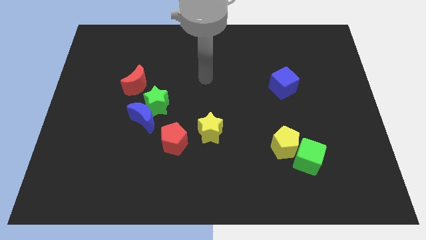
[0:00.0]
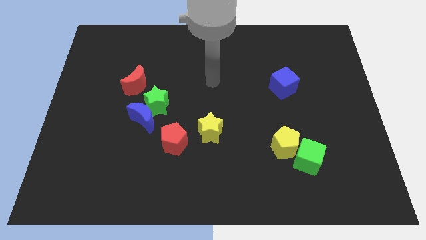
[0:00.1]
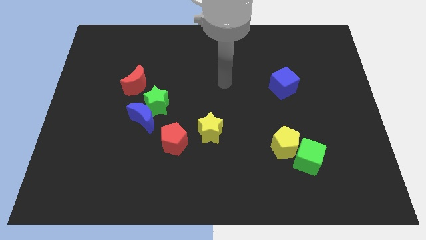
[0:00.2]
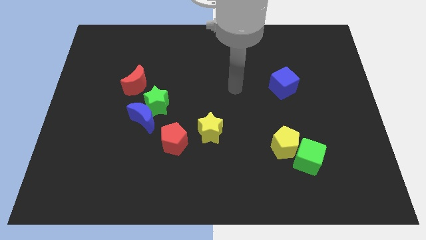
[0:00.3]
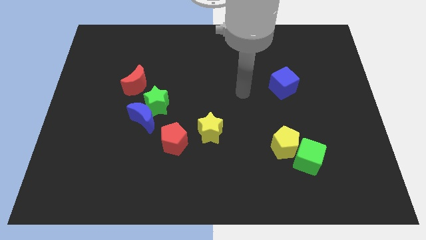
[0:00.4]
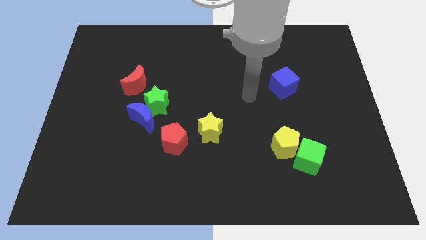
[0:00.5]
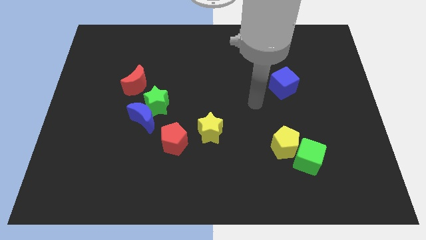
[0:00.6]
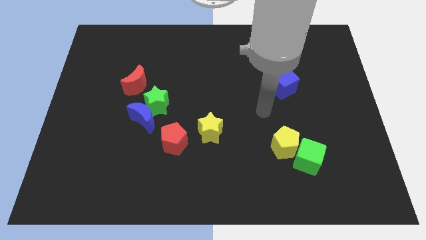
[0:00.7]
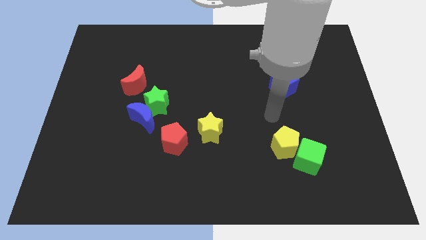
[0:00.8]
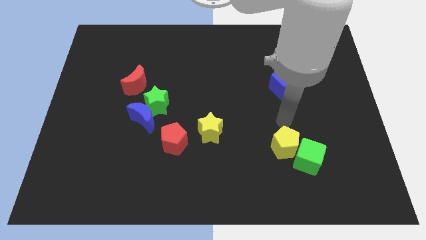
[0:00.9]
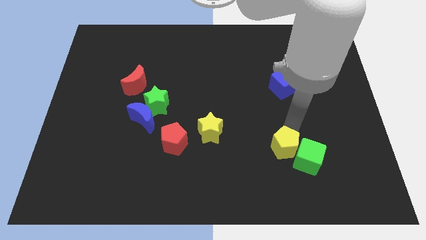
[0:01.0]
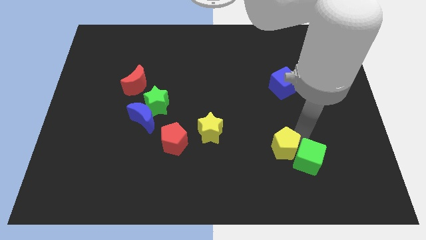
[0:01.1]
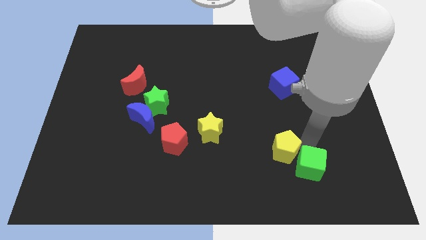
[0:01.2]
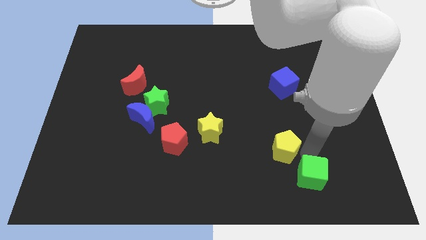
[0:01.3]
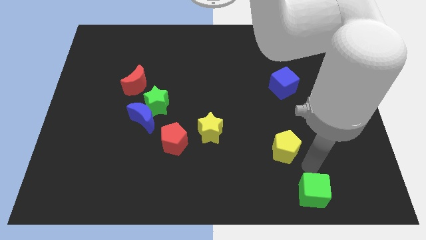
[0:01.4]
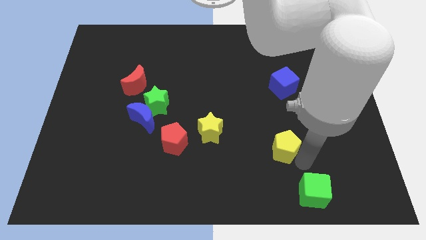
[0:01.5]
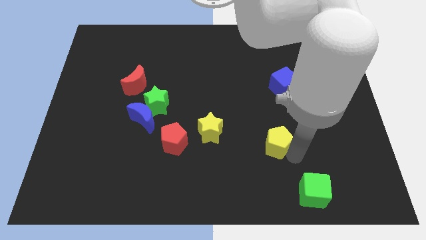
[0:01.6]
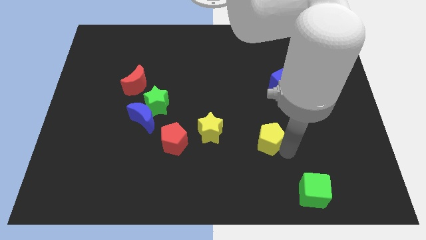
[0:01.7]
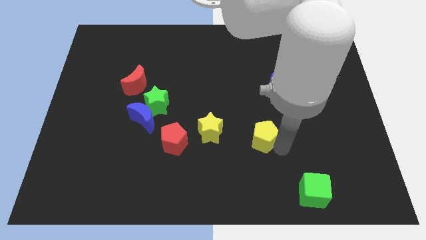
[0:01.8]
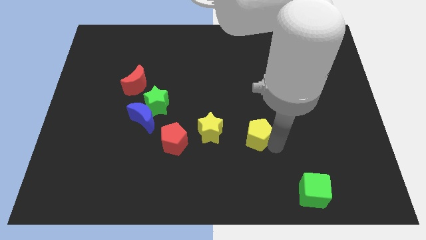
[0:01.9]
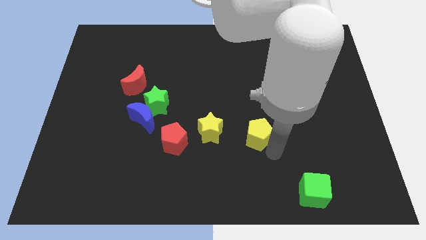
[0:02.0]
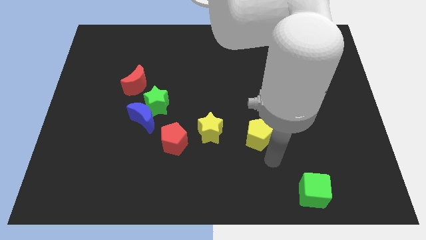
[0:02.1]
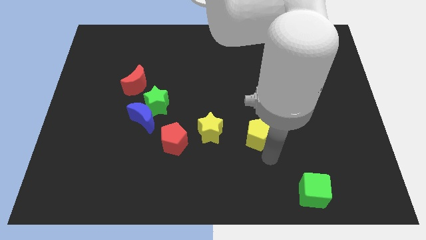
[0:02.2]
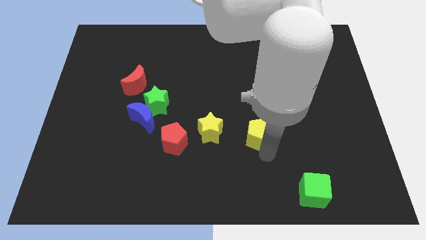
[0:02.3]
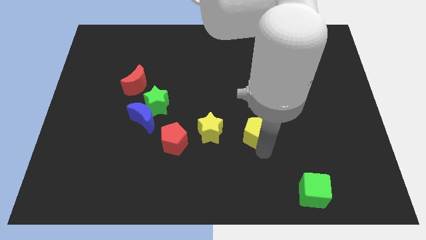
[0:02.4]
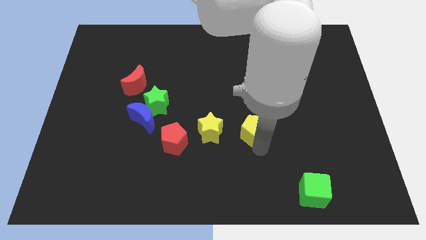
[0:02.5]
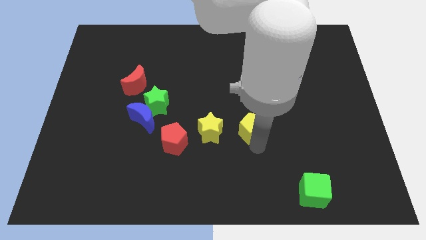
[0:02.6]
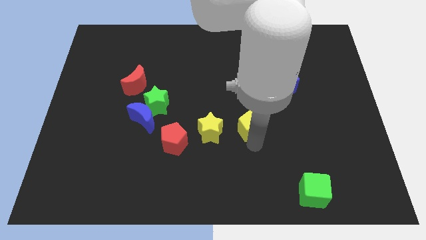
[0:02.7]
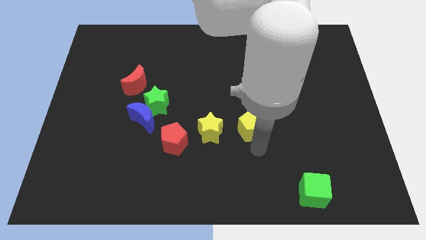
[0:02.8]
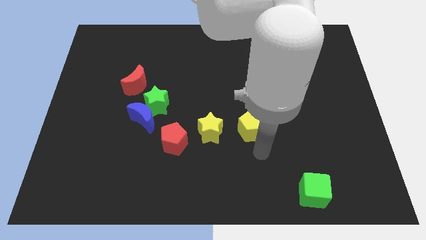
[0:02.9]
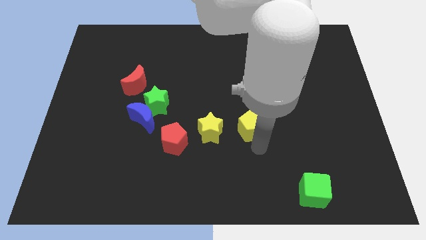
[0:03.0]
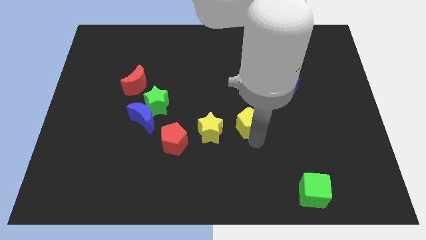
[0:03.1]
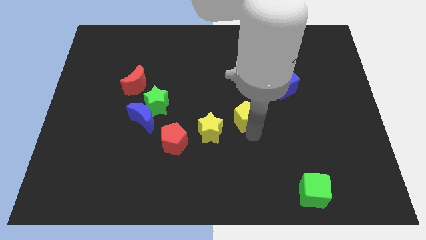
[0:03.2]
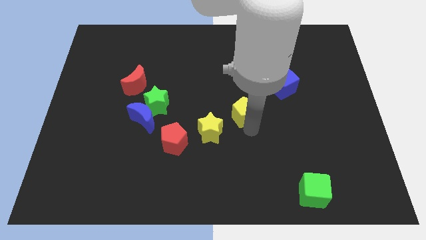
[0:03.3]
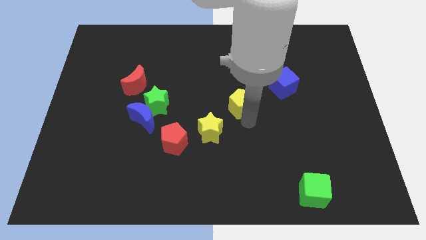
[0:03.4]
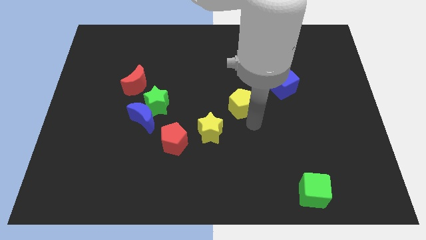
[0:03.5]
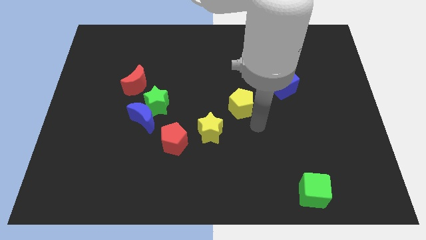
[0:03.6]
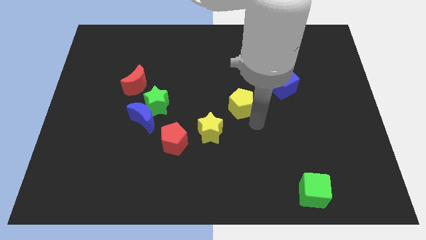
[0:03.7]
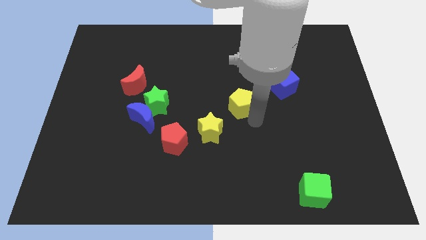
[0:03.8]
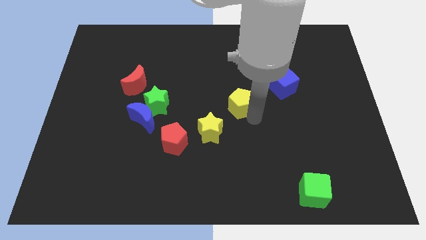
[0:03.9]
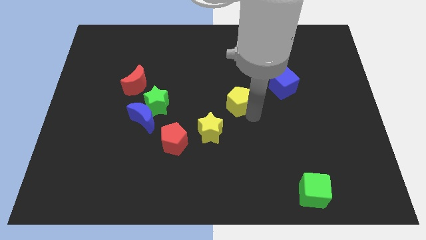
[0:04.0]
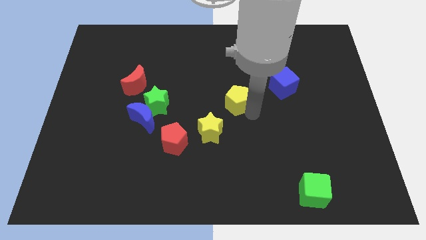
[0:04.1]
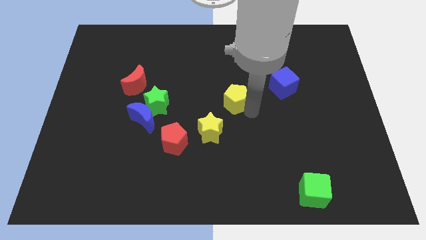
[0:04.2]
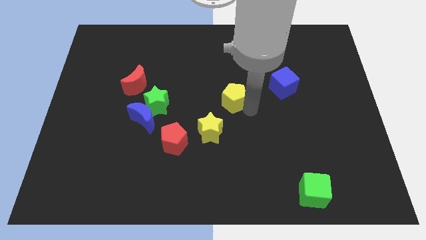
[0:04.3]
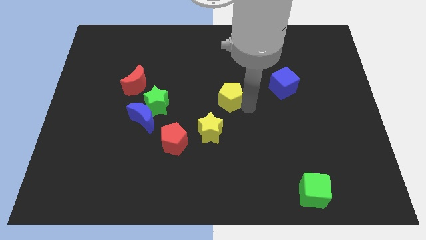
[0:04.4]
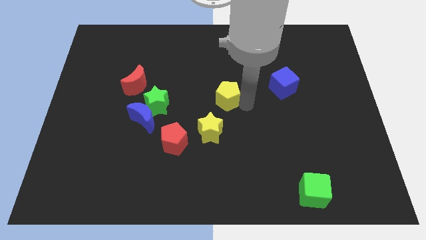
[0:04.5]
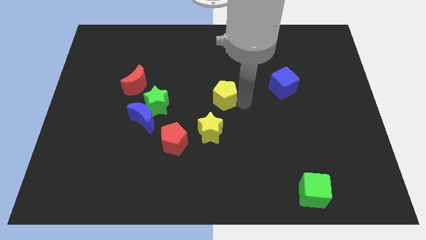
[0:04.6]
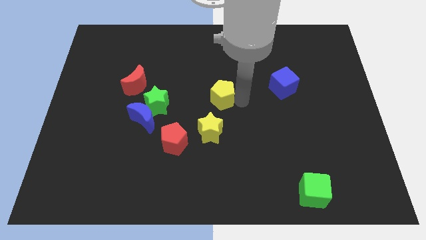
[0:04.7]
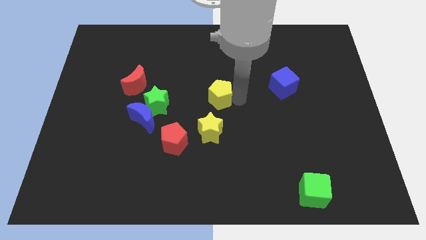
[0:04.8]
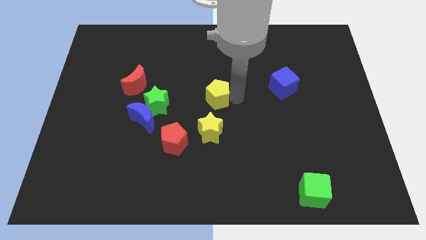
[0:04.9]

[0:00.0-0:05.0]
slide the yellow pentagon up and left diagonally

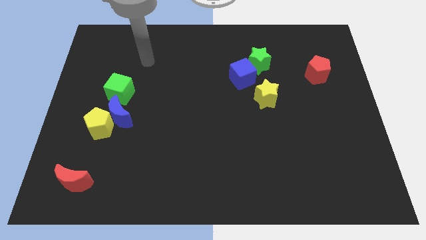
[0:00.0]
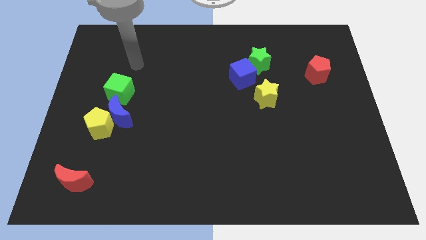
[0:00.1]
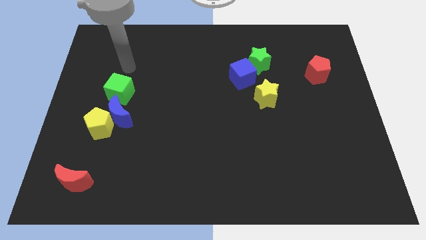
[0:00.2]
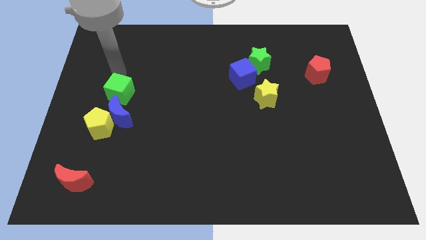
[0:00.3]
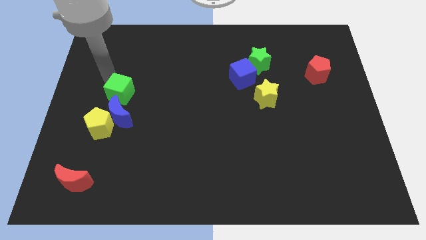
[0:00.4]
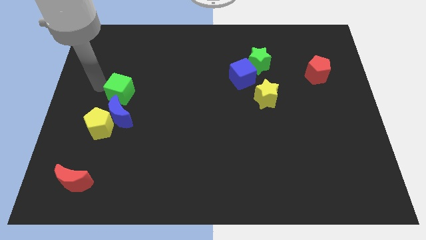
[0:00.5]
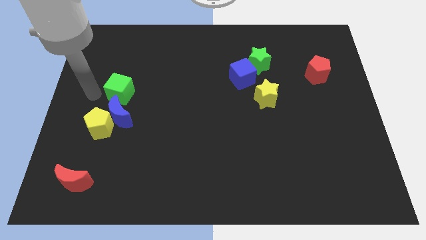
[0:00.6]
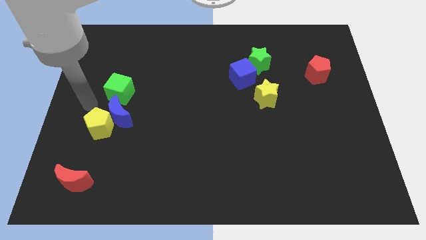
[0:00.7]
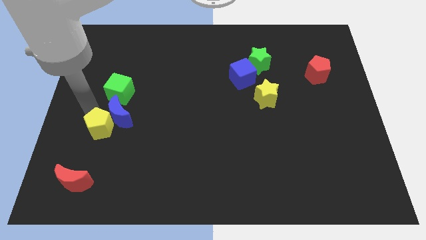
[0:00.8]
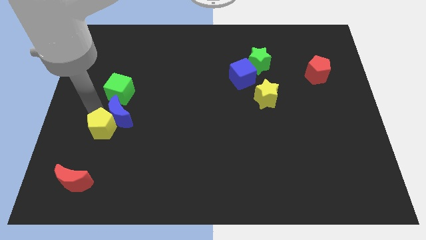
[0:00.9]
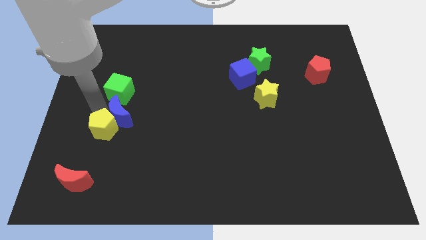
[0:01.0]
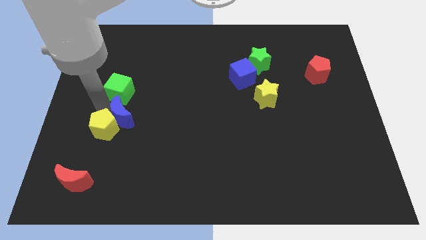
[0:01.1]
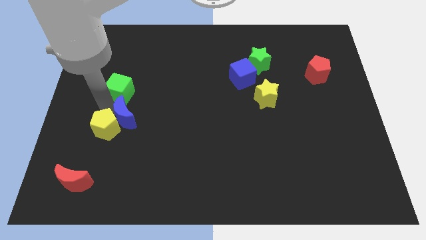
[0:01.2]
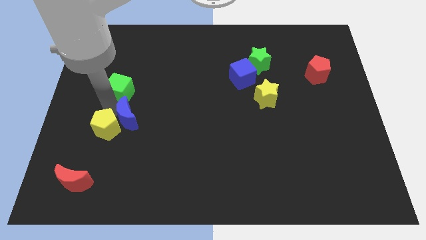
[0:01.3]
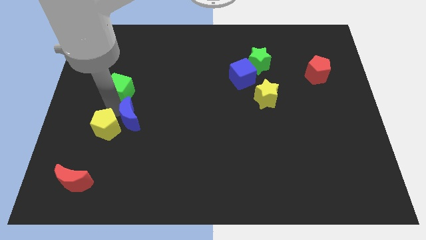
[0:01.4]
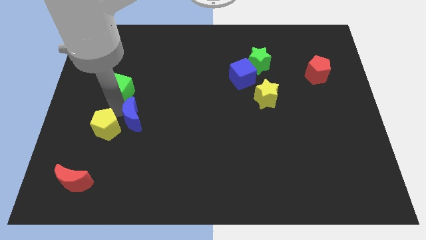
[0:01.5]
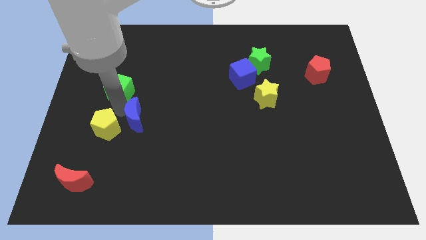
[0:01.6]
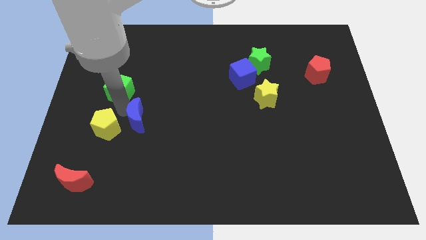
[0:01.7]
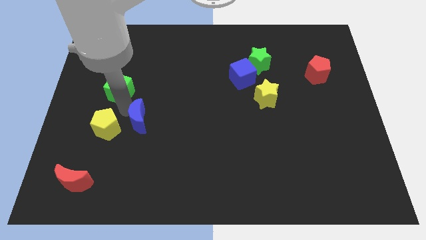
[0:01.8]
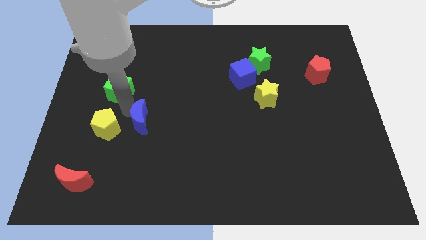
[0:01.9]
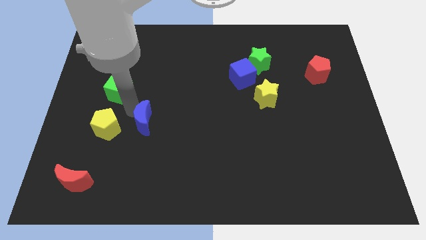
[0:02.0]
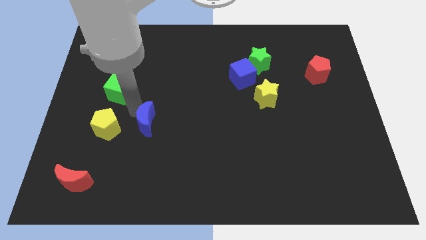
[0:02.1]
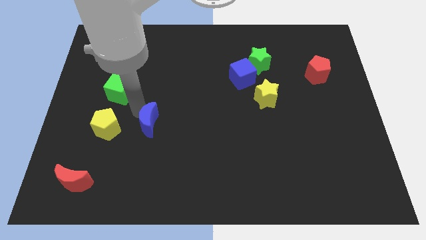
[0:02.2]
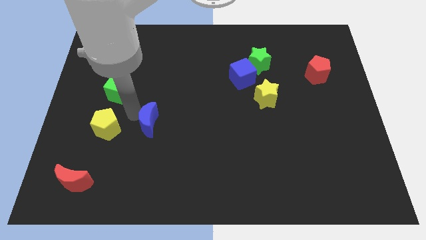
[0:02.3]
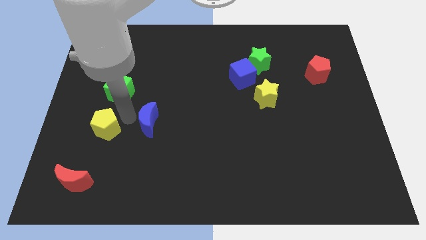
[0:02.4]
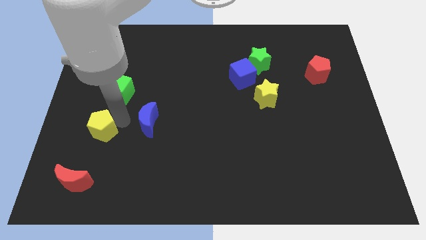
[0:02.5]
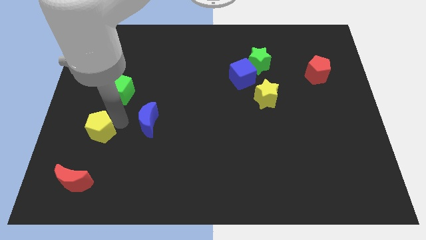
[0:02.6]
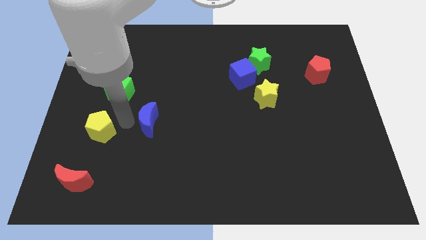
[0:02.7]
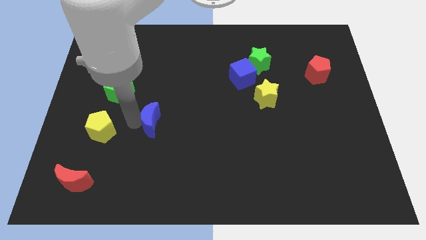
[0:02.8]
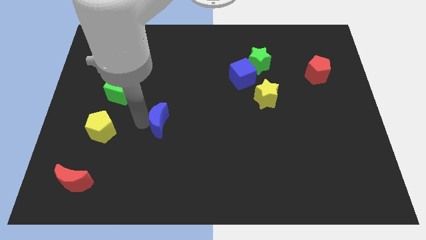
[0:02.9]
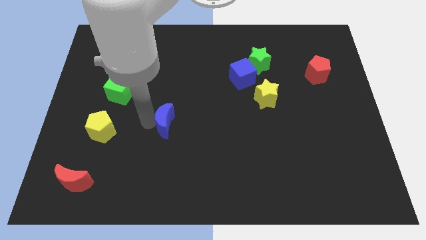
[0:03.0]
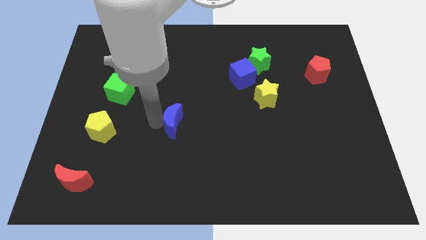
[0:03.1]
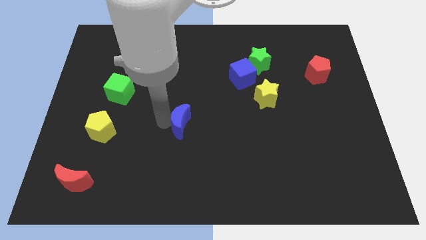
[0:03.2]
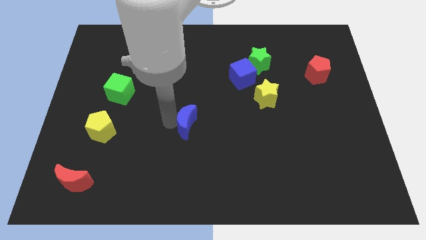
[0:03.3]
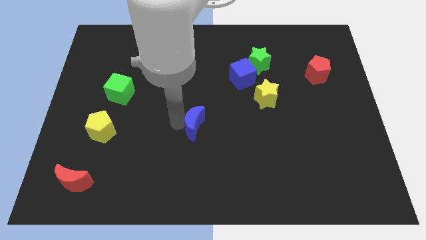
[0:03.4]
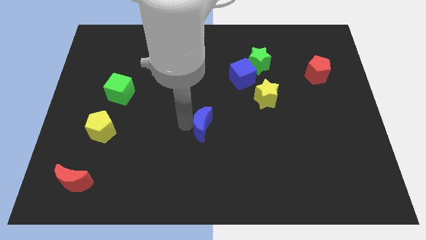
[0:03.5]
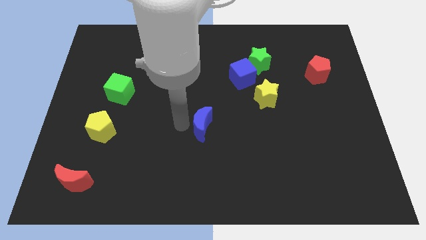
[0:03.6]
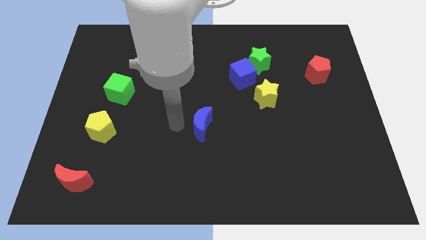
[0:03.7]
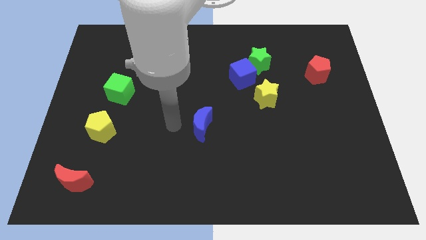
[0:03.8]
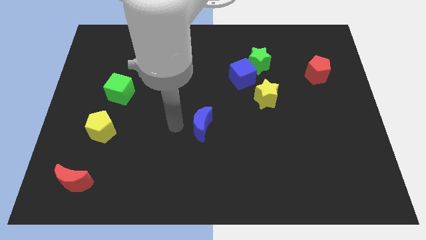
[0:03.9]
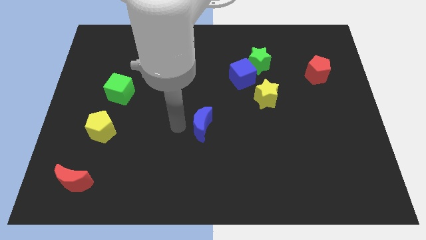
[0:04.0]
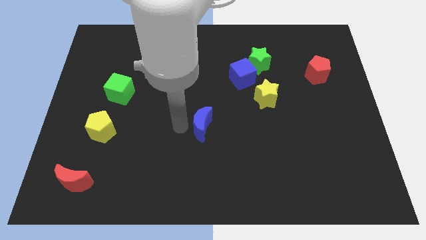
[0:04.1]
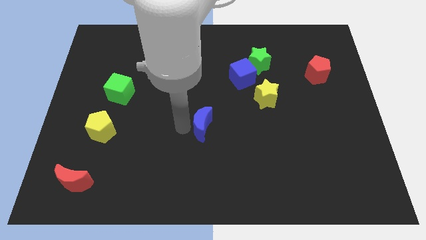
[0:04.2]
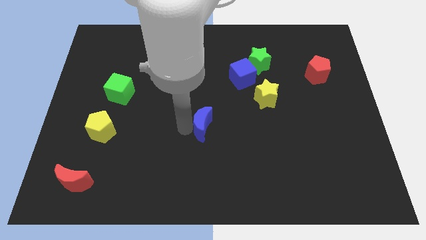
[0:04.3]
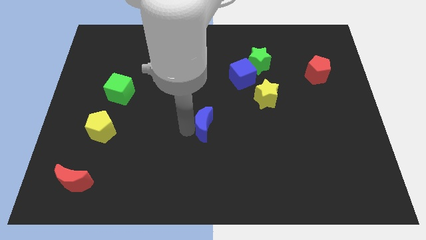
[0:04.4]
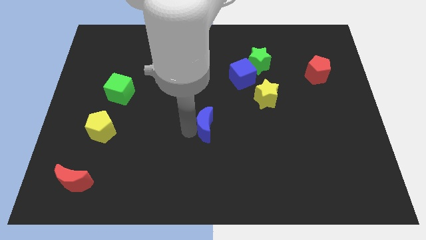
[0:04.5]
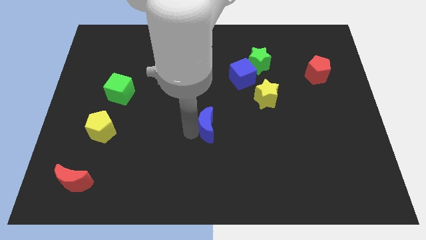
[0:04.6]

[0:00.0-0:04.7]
slide the blue moon right
